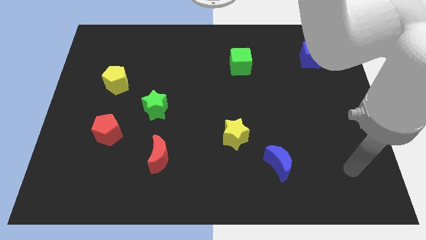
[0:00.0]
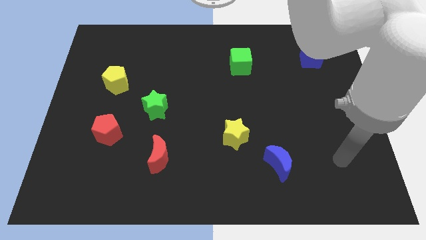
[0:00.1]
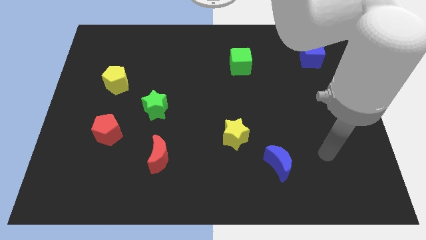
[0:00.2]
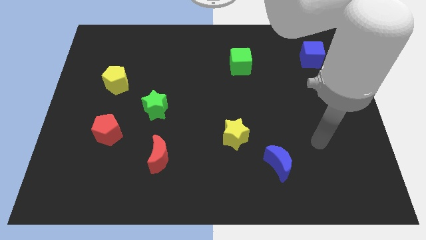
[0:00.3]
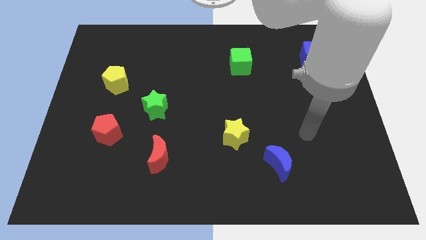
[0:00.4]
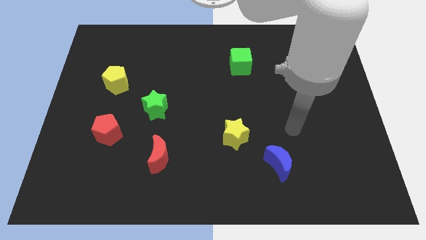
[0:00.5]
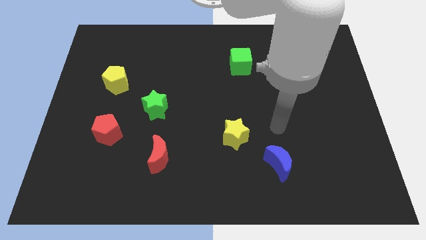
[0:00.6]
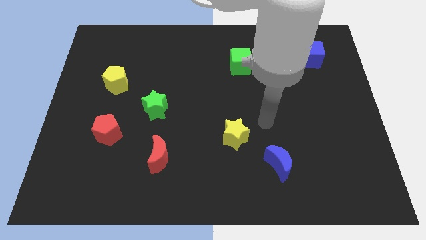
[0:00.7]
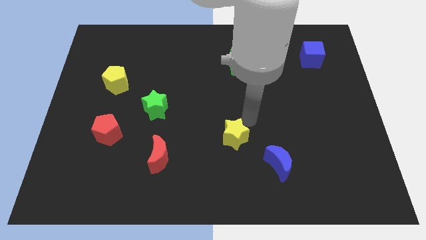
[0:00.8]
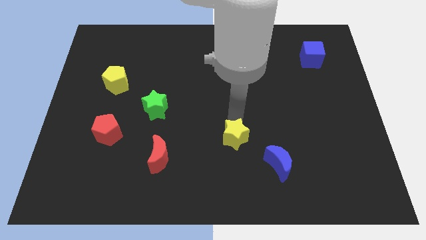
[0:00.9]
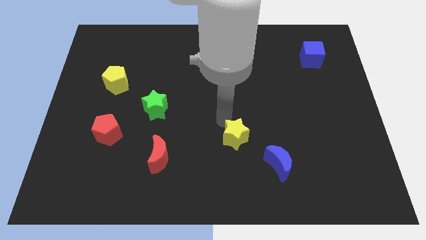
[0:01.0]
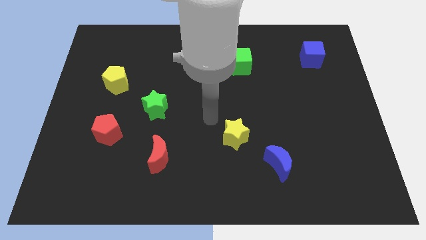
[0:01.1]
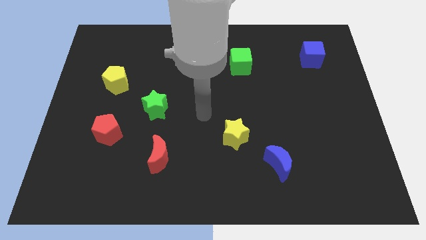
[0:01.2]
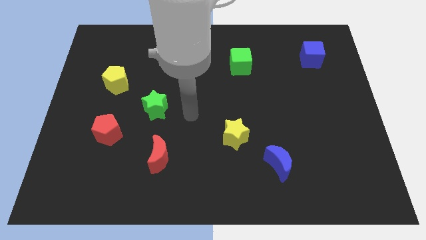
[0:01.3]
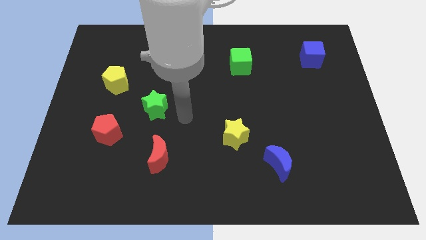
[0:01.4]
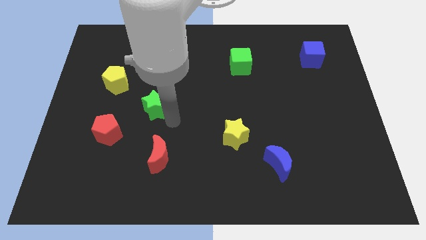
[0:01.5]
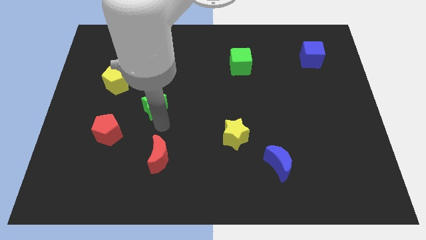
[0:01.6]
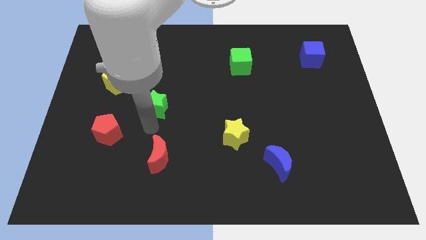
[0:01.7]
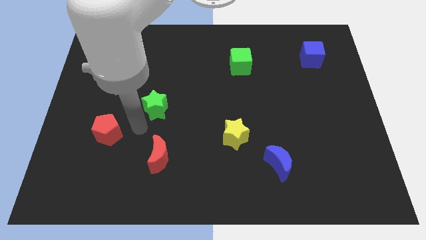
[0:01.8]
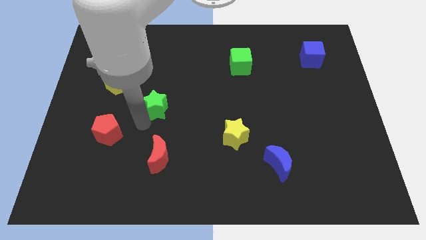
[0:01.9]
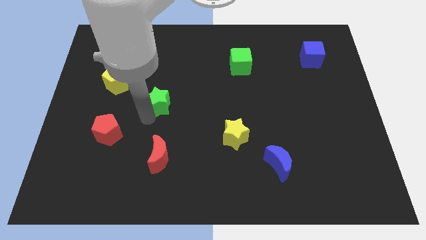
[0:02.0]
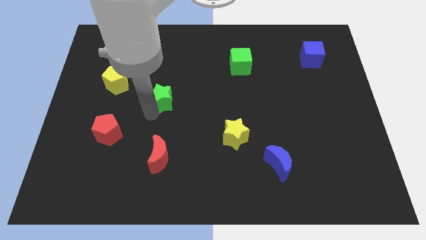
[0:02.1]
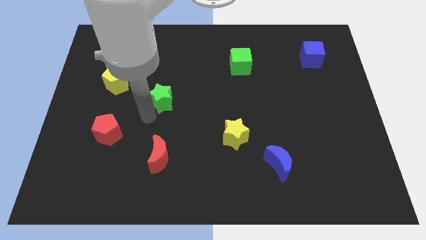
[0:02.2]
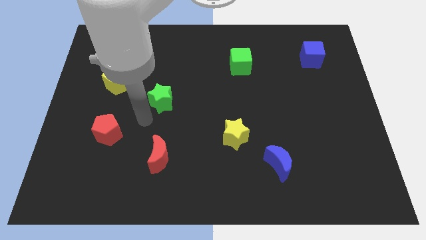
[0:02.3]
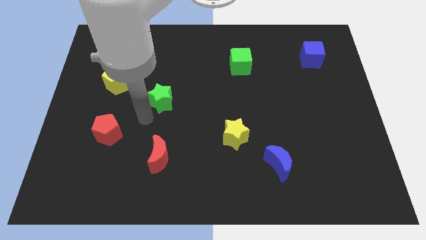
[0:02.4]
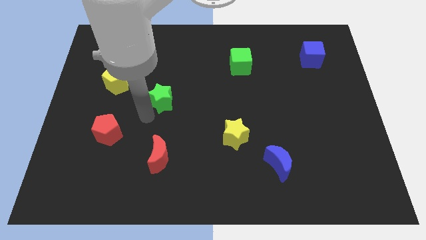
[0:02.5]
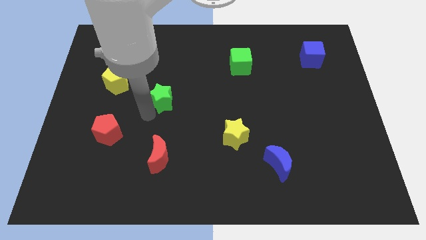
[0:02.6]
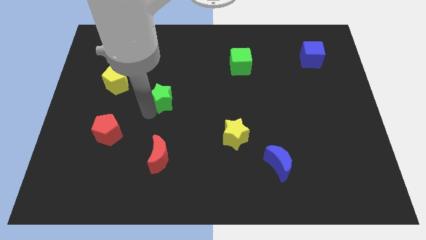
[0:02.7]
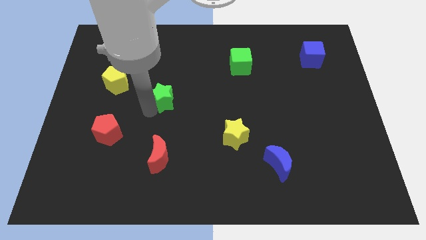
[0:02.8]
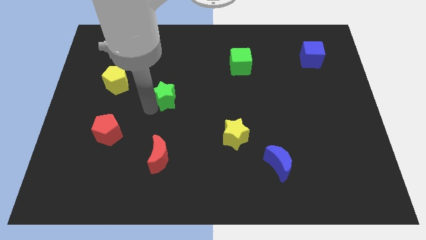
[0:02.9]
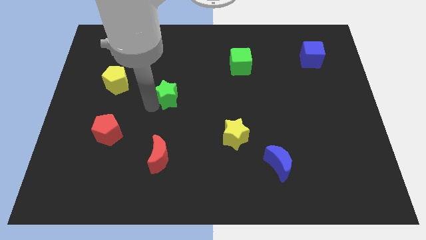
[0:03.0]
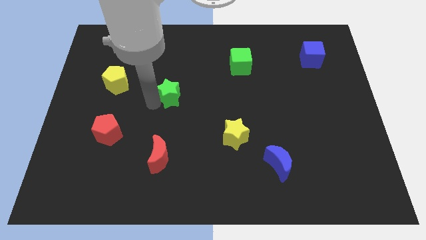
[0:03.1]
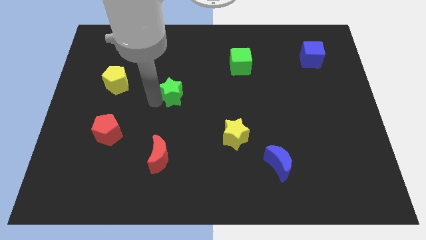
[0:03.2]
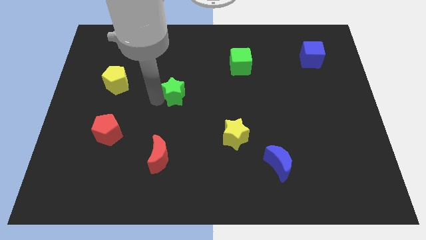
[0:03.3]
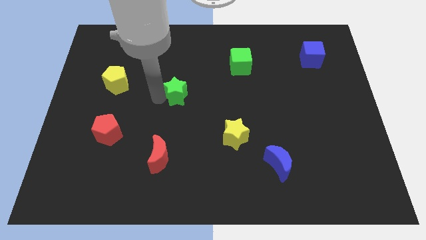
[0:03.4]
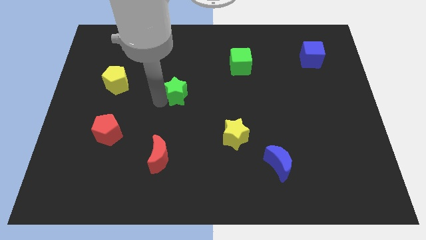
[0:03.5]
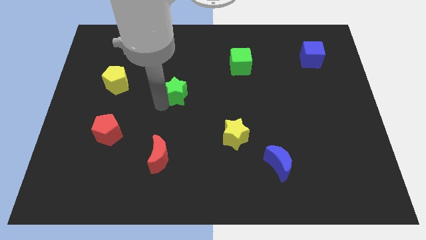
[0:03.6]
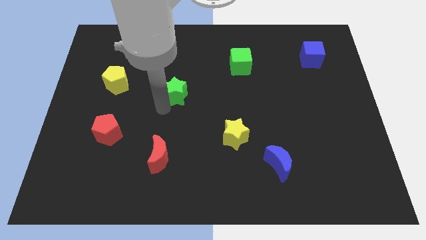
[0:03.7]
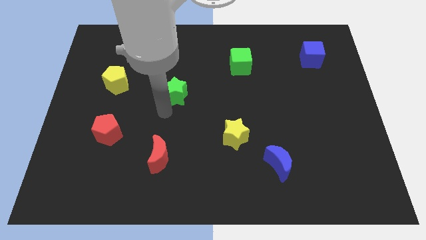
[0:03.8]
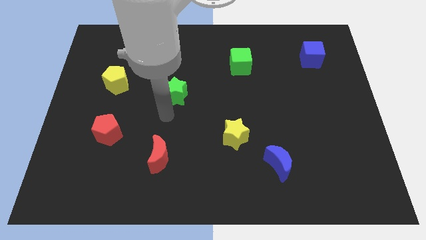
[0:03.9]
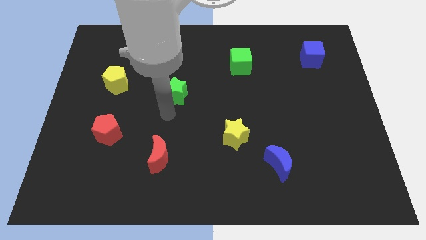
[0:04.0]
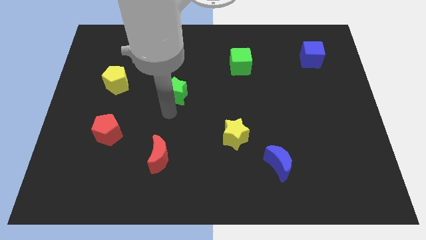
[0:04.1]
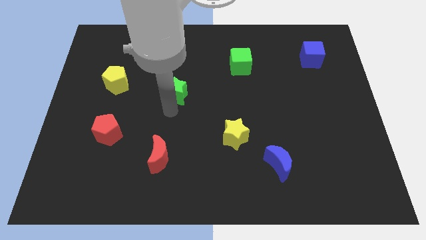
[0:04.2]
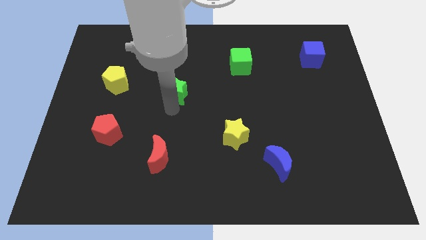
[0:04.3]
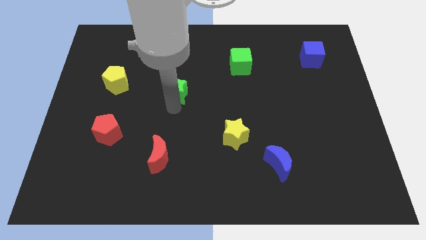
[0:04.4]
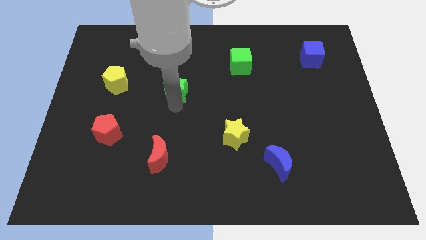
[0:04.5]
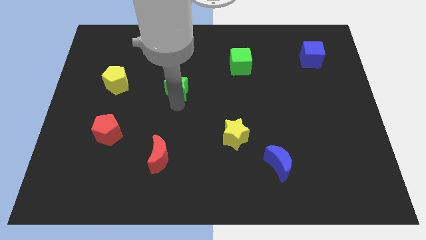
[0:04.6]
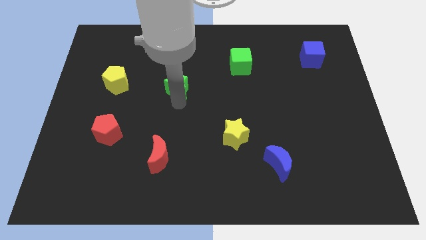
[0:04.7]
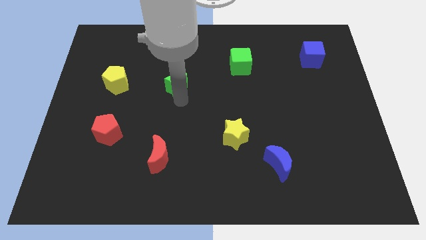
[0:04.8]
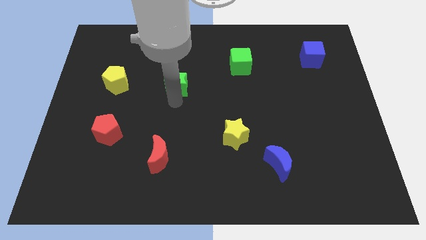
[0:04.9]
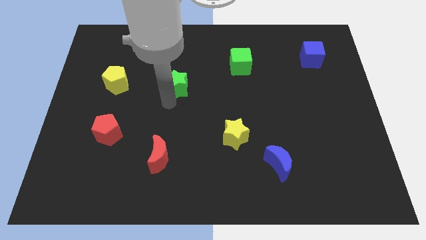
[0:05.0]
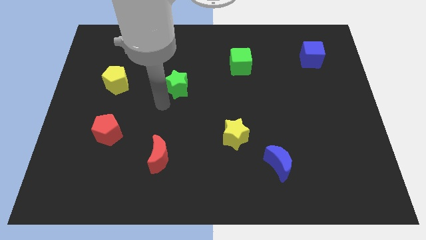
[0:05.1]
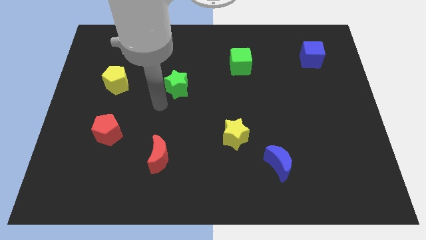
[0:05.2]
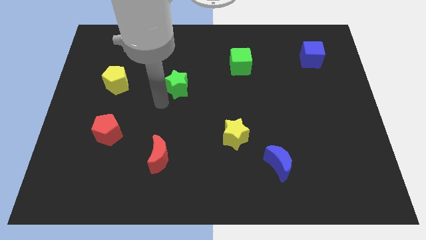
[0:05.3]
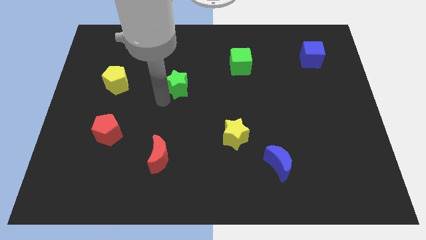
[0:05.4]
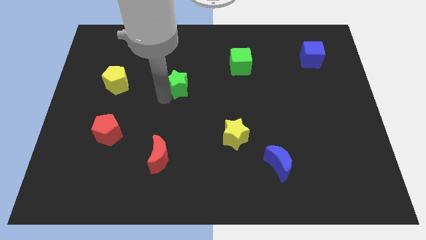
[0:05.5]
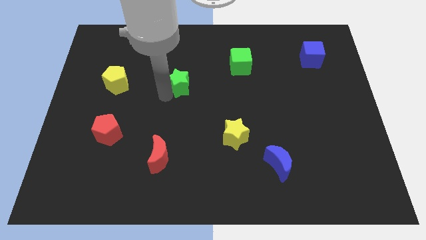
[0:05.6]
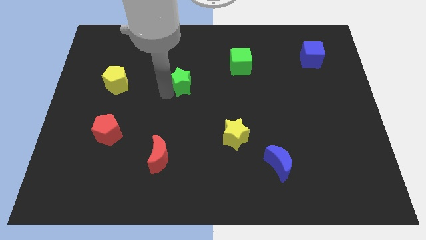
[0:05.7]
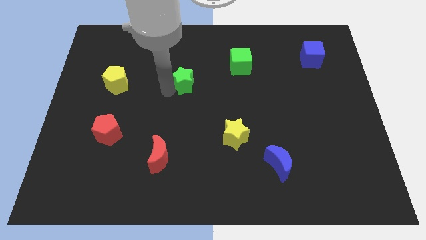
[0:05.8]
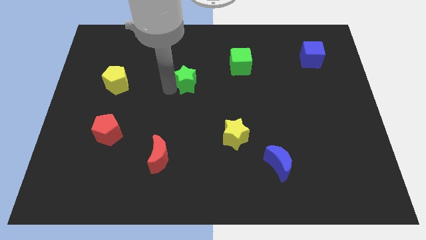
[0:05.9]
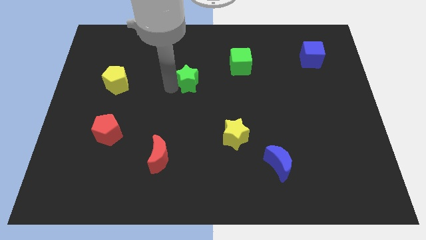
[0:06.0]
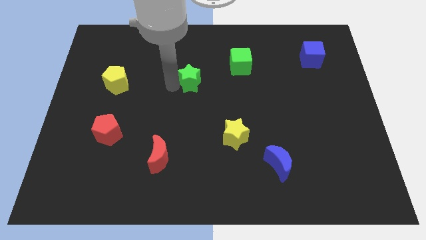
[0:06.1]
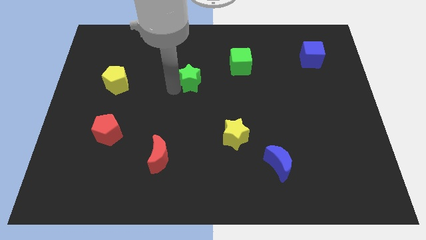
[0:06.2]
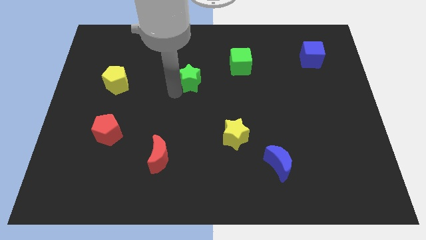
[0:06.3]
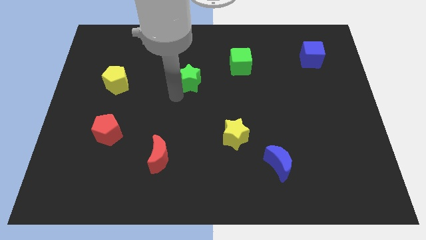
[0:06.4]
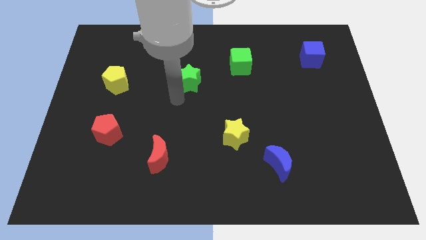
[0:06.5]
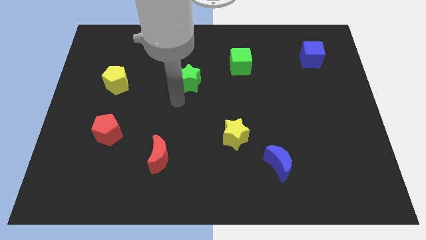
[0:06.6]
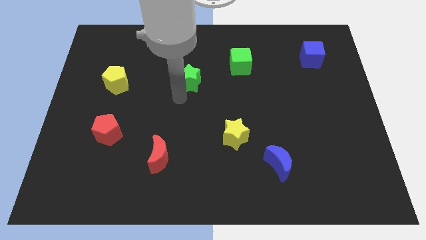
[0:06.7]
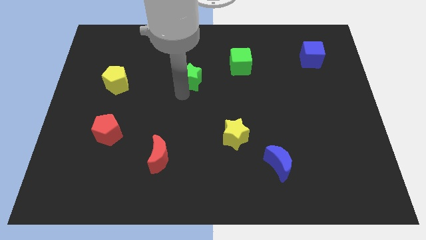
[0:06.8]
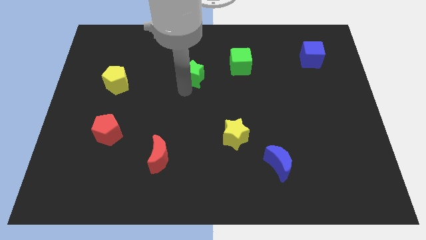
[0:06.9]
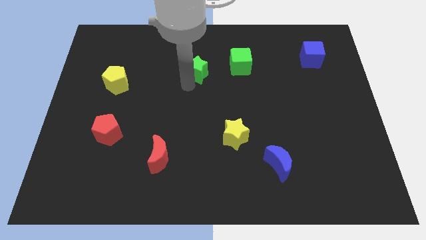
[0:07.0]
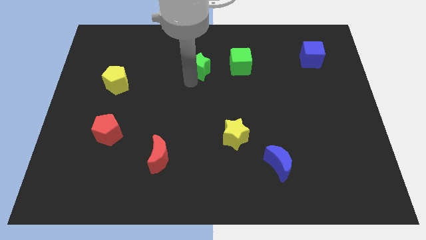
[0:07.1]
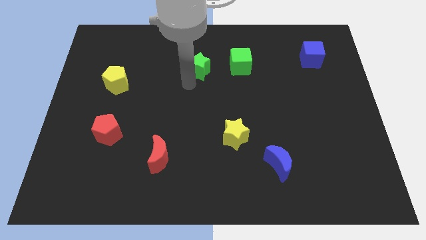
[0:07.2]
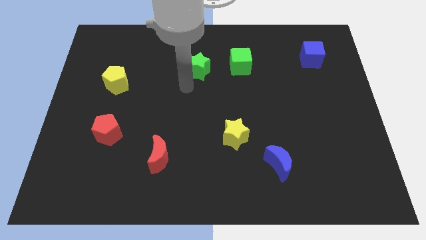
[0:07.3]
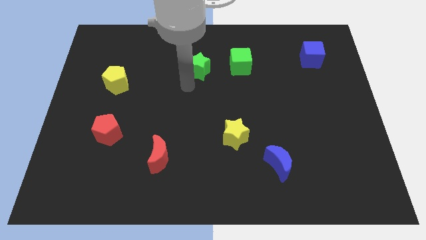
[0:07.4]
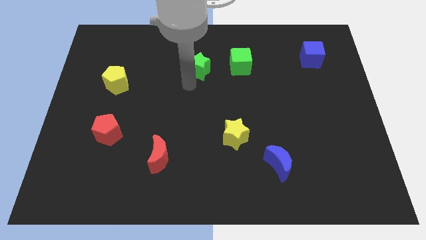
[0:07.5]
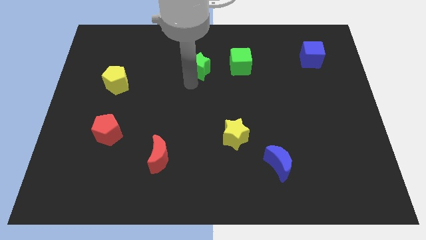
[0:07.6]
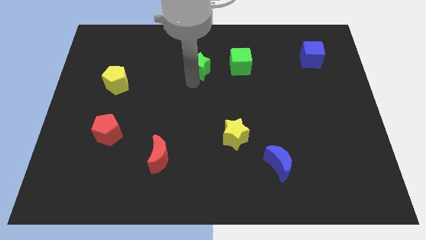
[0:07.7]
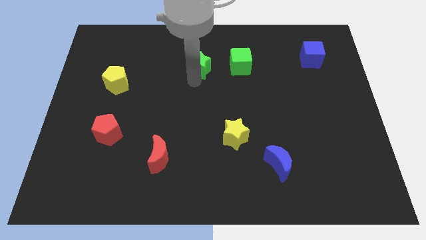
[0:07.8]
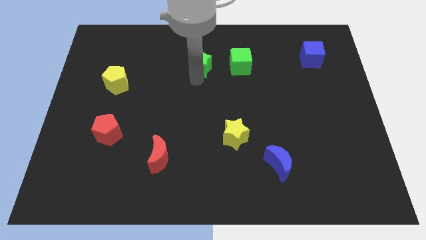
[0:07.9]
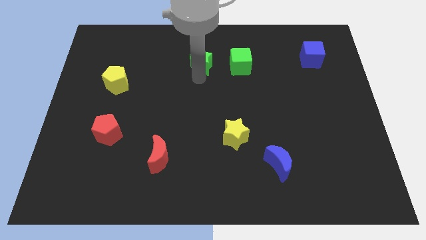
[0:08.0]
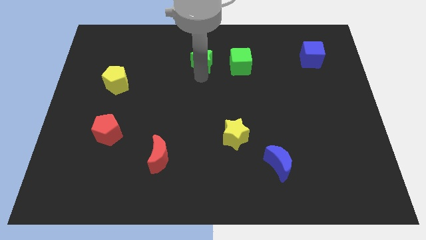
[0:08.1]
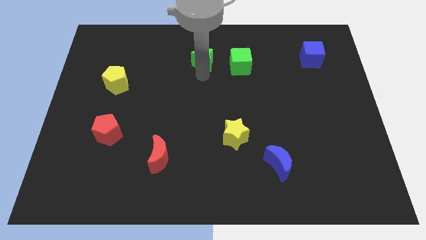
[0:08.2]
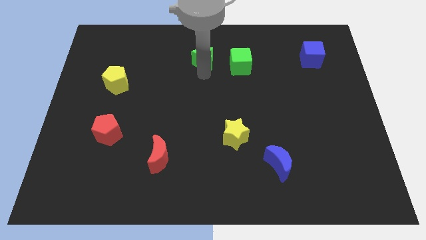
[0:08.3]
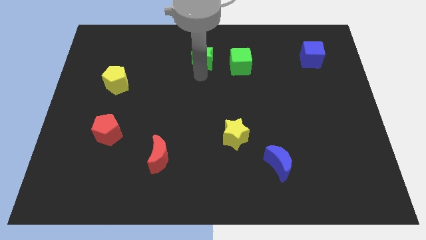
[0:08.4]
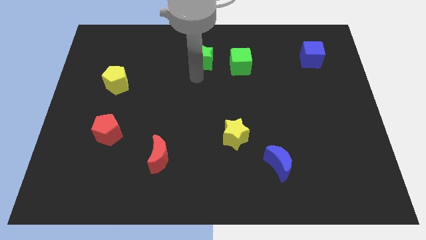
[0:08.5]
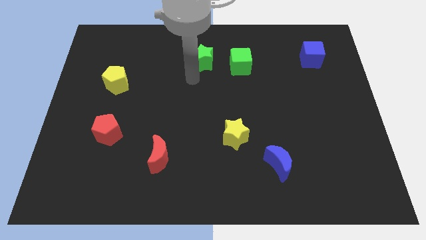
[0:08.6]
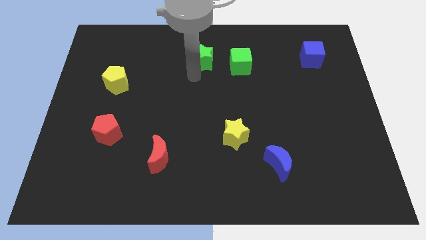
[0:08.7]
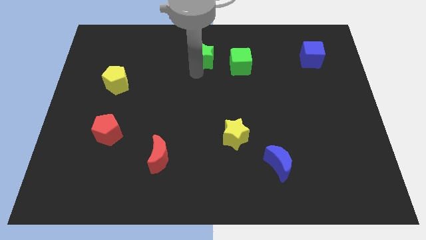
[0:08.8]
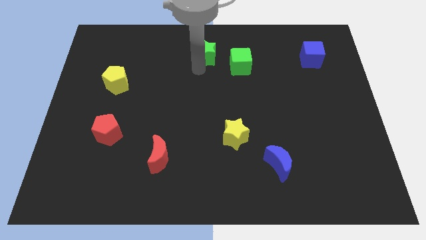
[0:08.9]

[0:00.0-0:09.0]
slide the green star to the top
